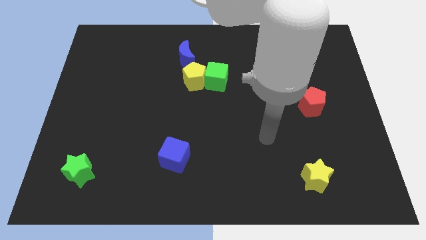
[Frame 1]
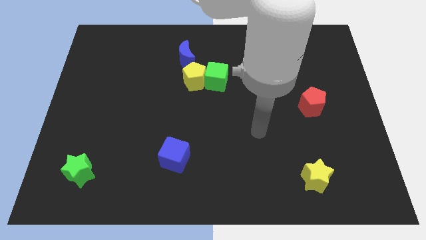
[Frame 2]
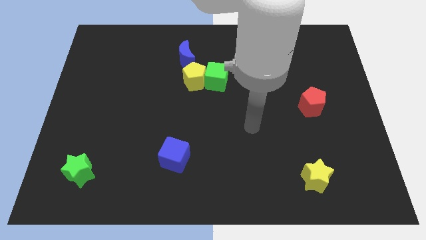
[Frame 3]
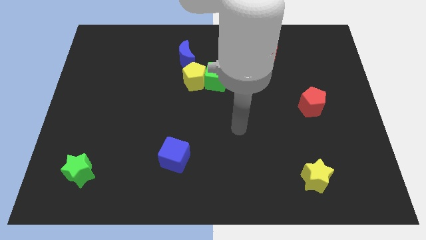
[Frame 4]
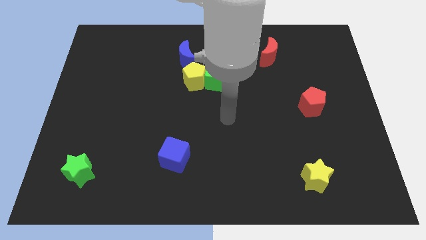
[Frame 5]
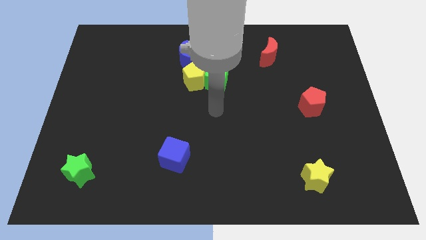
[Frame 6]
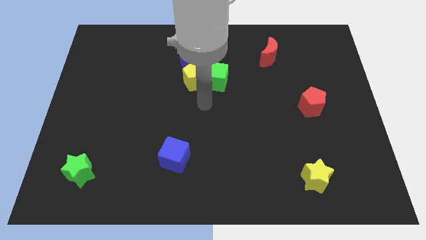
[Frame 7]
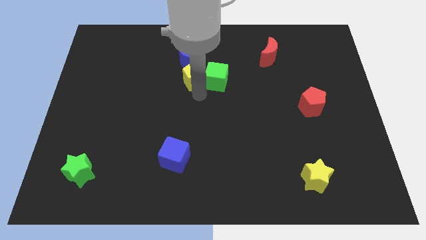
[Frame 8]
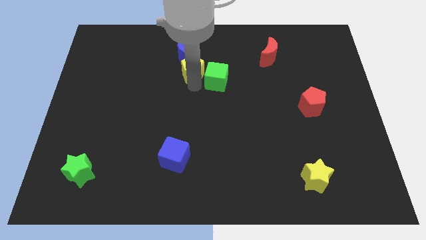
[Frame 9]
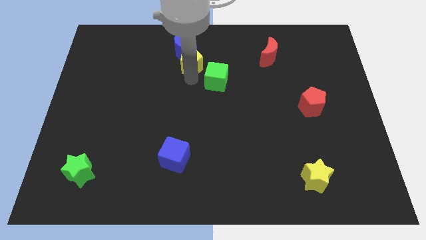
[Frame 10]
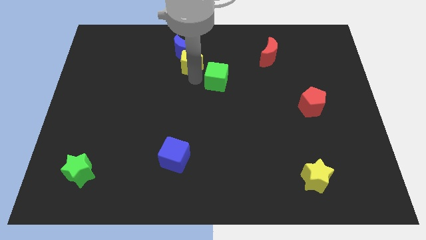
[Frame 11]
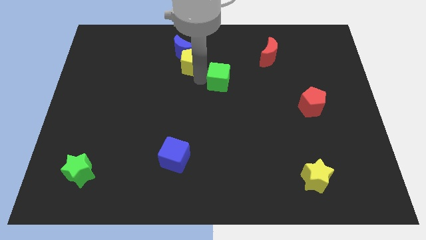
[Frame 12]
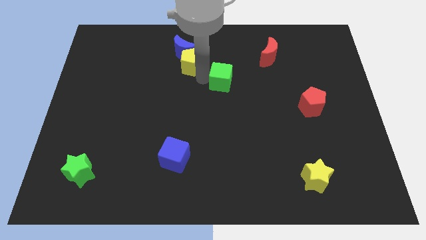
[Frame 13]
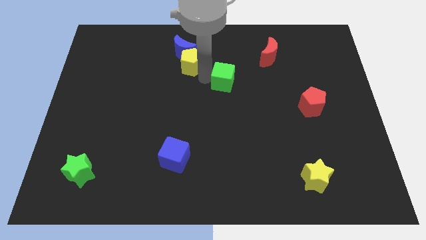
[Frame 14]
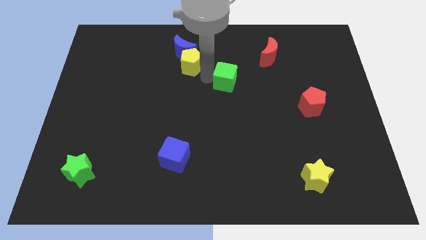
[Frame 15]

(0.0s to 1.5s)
move the green cube away from the yellow pentagon

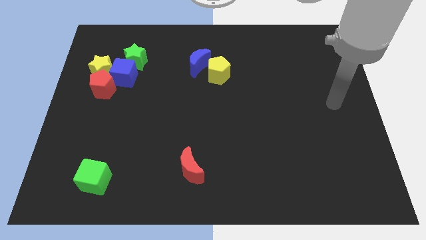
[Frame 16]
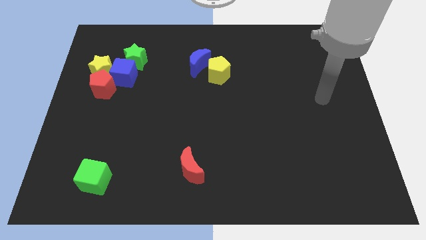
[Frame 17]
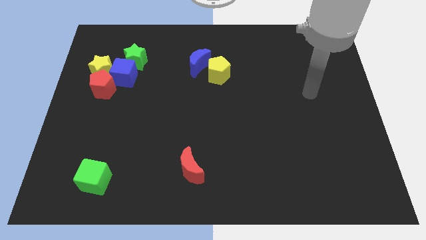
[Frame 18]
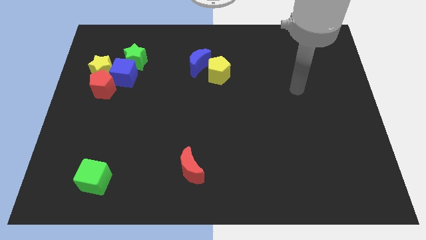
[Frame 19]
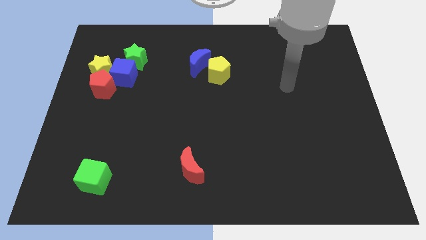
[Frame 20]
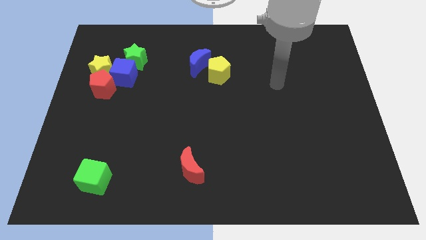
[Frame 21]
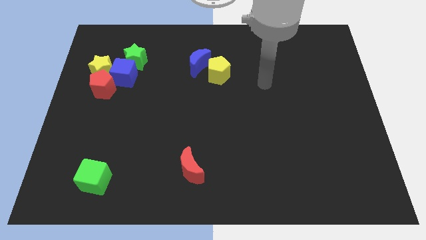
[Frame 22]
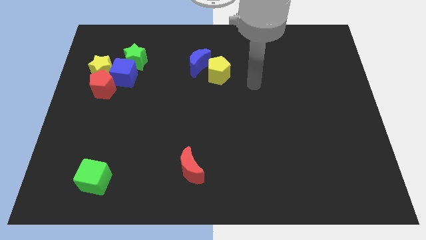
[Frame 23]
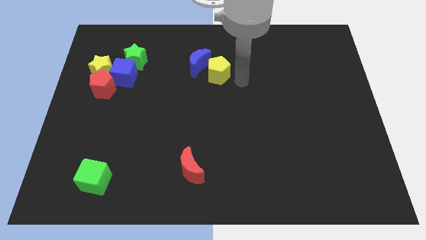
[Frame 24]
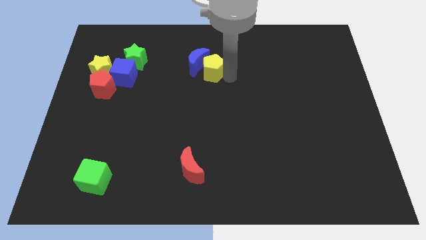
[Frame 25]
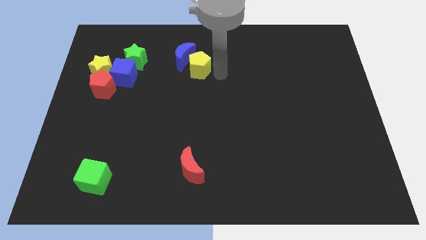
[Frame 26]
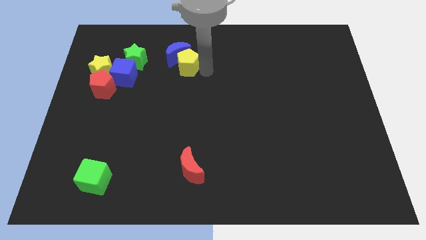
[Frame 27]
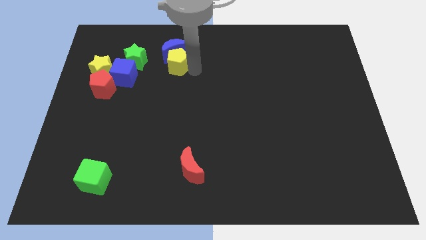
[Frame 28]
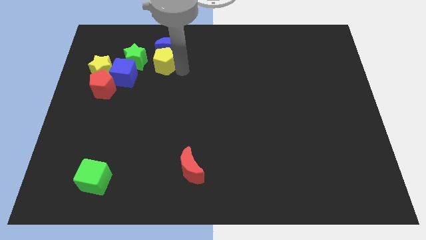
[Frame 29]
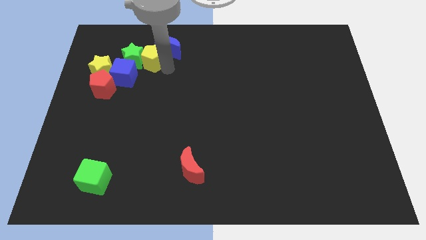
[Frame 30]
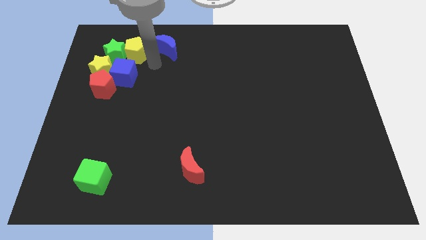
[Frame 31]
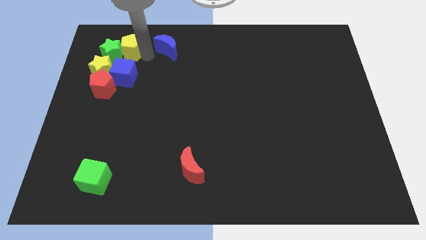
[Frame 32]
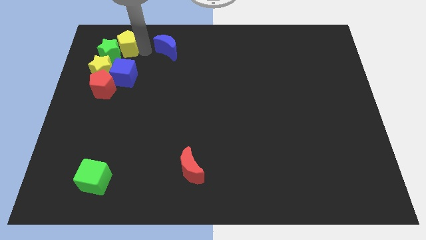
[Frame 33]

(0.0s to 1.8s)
pull the blue moon apart from the yellow pentagon

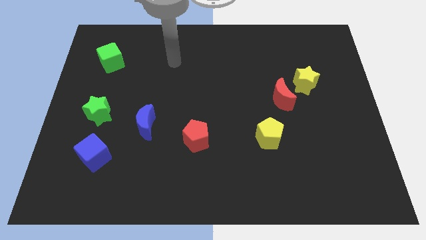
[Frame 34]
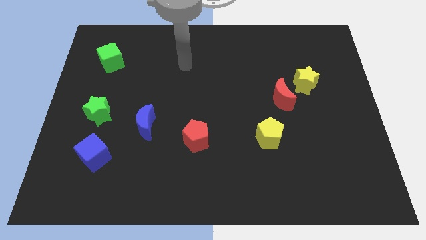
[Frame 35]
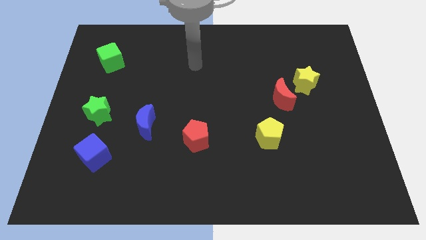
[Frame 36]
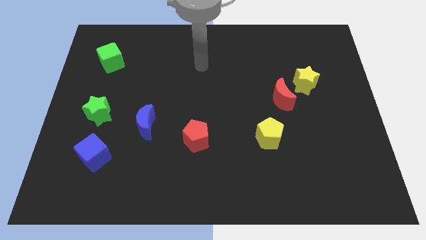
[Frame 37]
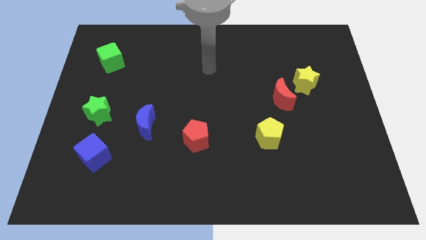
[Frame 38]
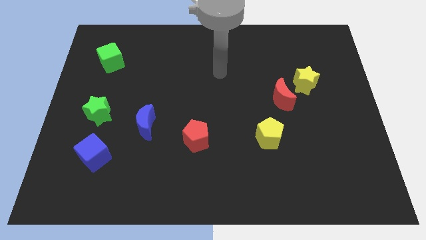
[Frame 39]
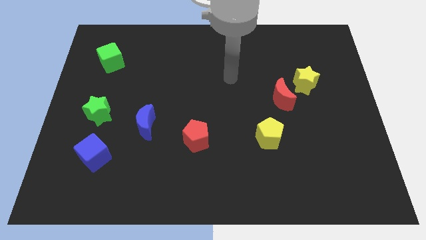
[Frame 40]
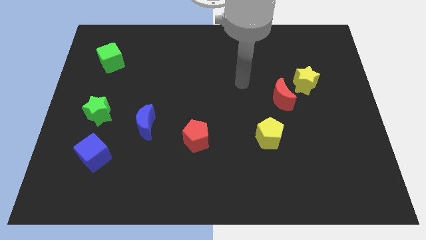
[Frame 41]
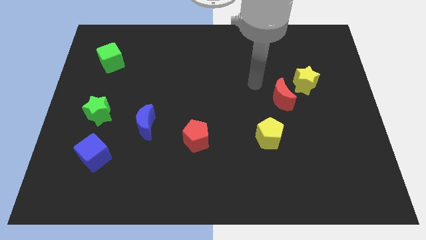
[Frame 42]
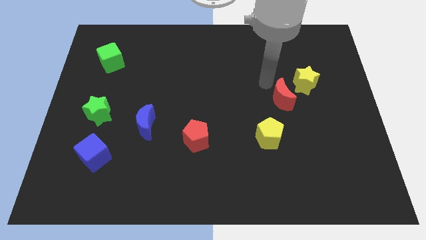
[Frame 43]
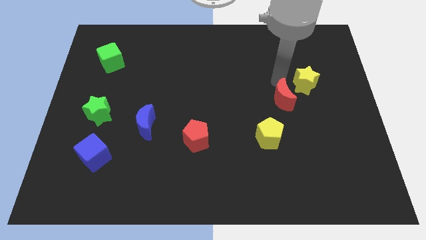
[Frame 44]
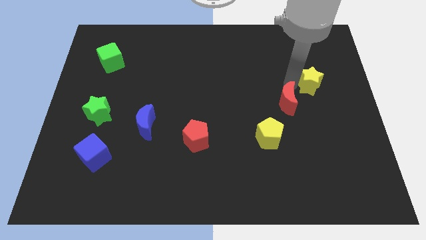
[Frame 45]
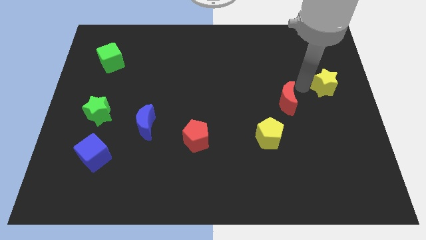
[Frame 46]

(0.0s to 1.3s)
pull the red moon apart from the yellow star

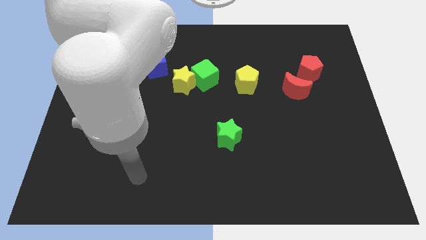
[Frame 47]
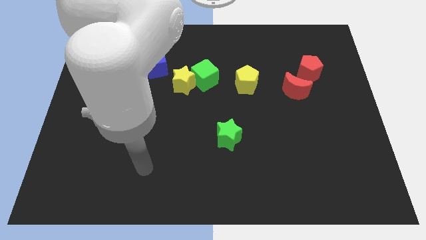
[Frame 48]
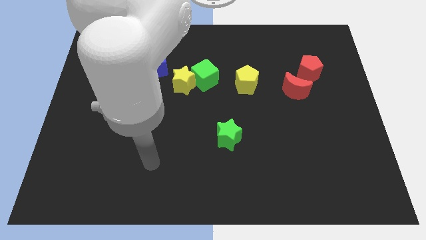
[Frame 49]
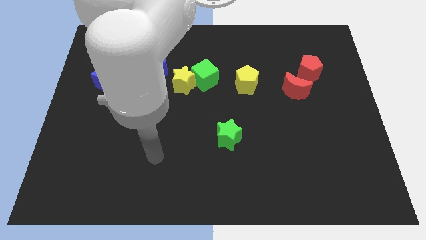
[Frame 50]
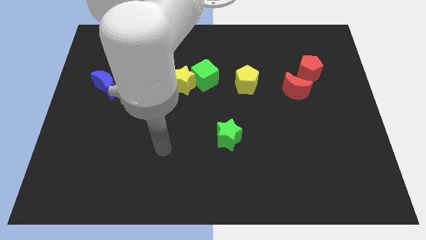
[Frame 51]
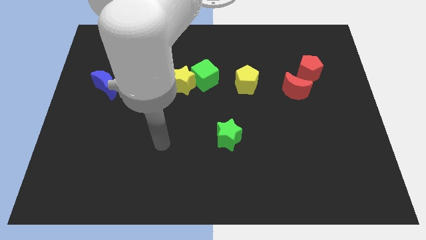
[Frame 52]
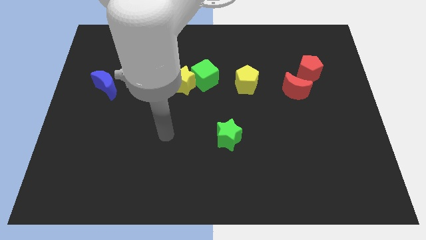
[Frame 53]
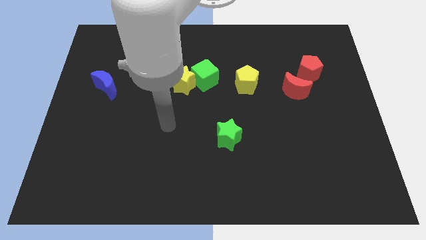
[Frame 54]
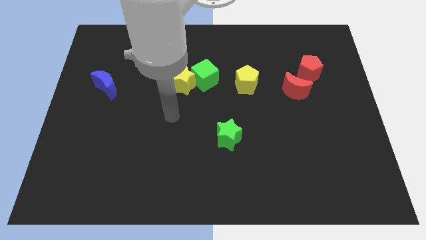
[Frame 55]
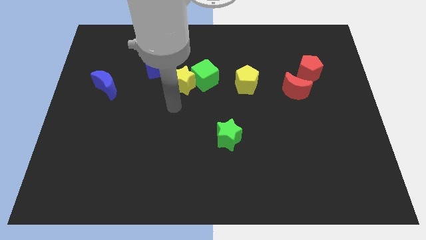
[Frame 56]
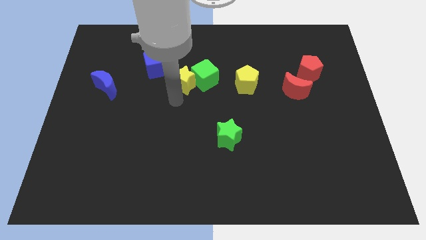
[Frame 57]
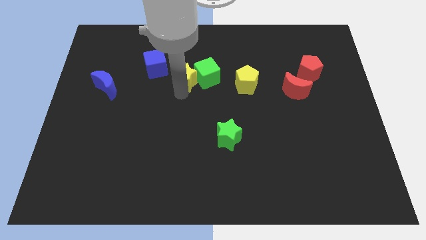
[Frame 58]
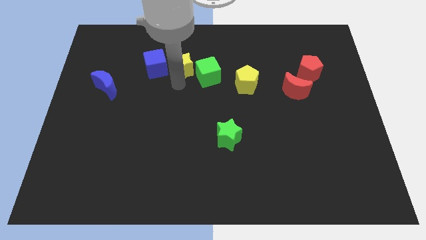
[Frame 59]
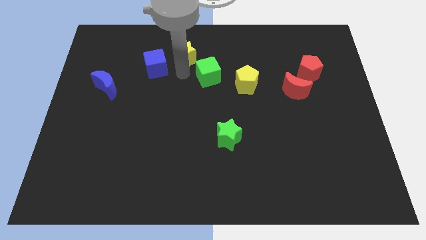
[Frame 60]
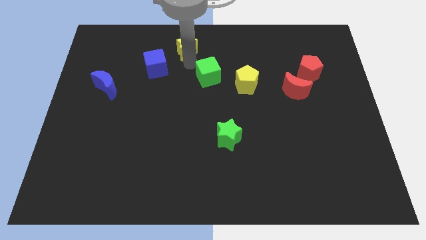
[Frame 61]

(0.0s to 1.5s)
pull the green cube apart from the yellow star

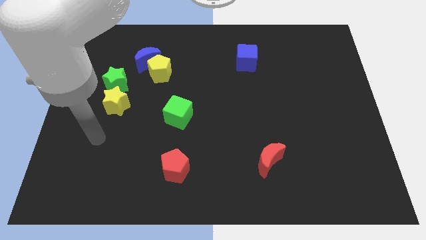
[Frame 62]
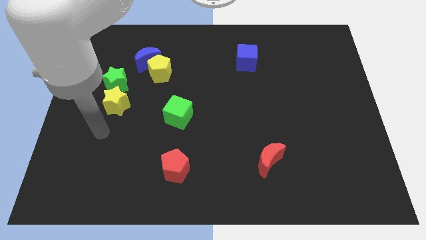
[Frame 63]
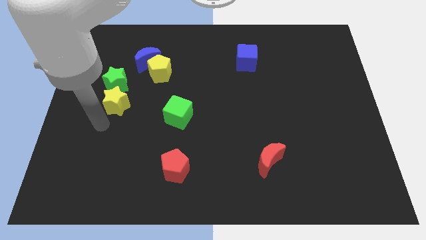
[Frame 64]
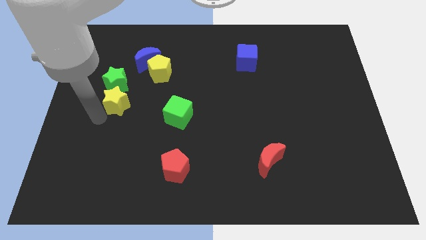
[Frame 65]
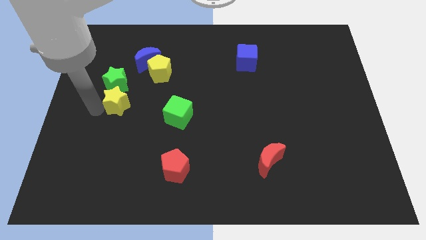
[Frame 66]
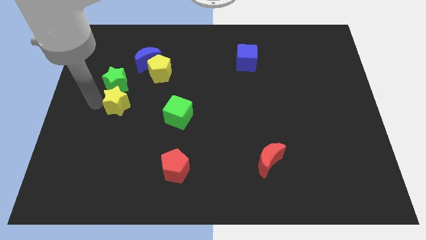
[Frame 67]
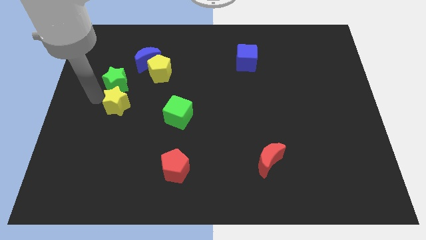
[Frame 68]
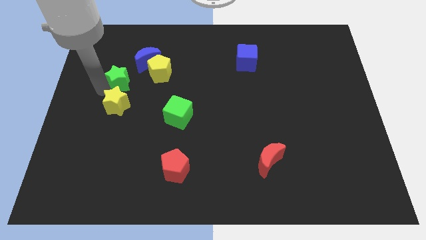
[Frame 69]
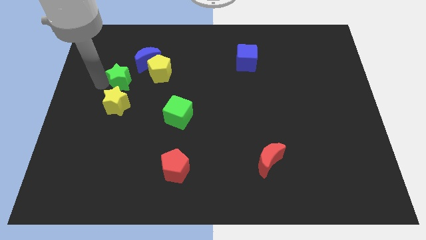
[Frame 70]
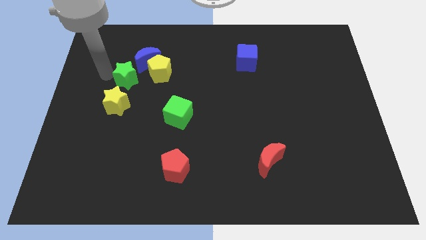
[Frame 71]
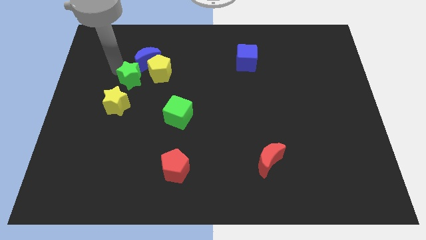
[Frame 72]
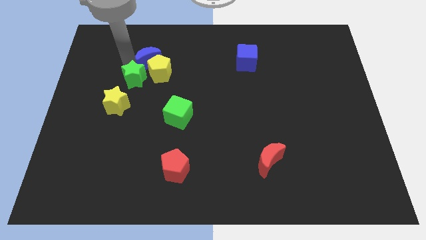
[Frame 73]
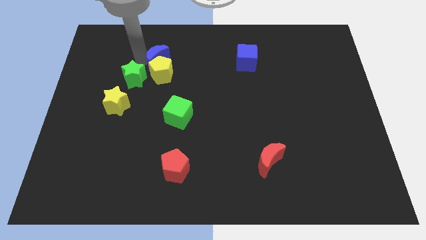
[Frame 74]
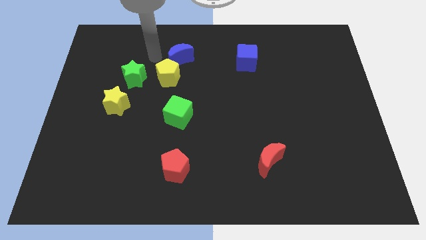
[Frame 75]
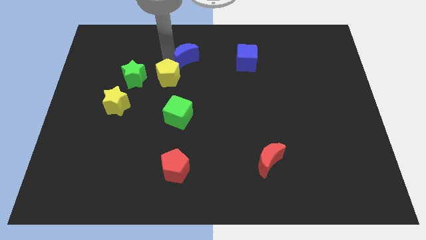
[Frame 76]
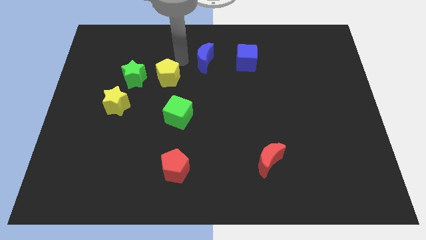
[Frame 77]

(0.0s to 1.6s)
separate the yellow pentagon from the blue moon

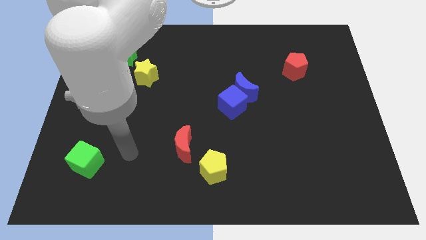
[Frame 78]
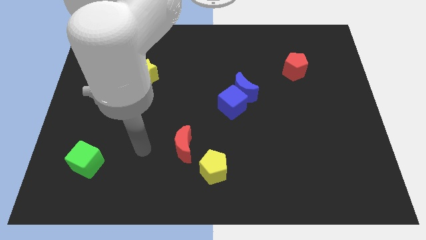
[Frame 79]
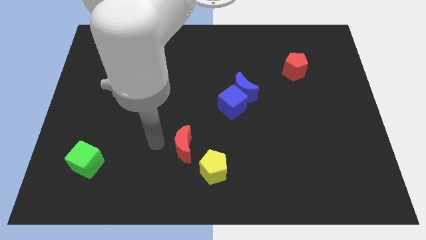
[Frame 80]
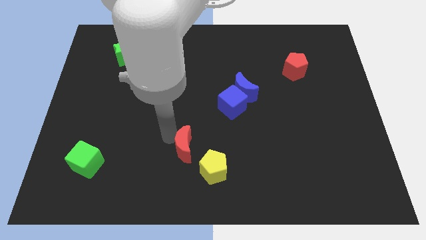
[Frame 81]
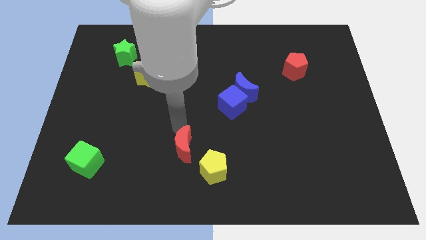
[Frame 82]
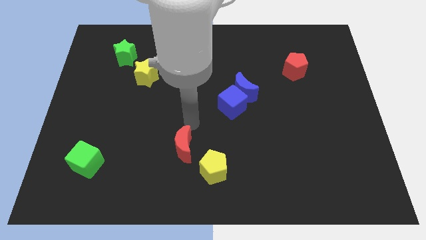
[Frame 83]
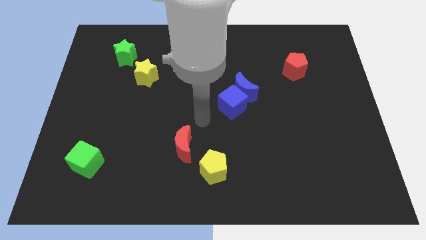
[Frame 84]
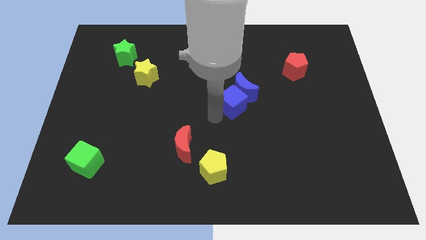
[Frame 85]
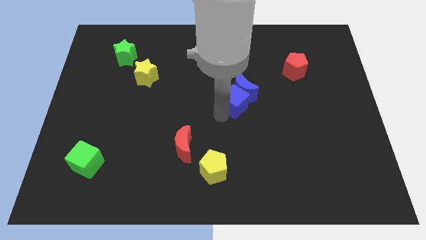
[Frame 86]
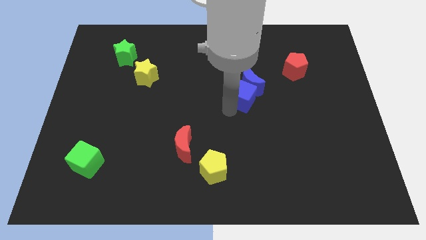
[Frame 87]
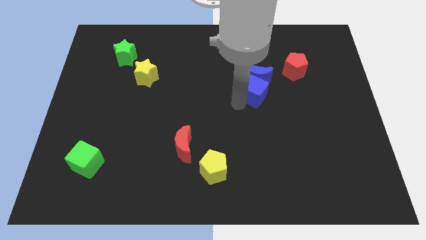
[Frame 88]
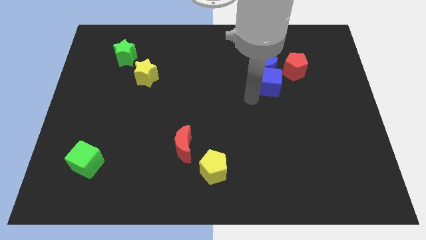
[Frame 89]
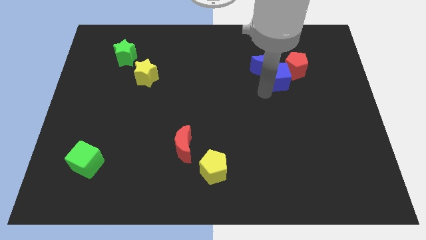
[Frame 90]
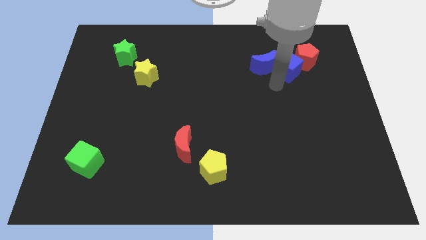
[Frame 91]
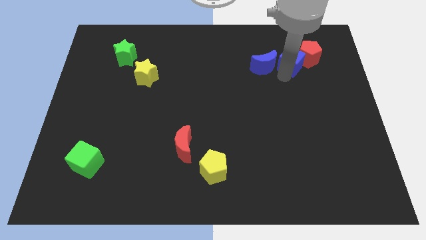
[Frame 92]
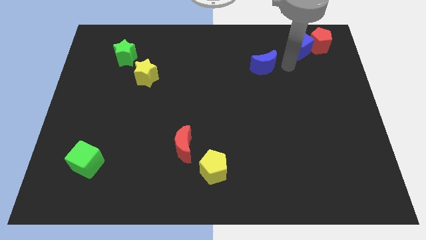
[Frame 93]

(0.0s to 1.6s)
separate the blue moon from the blue cube
